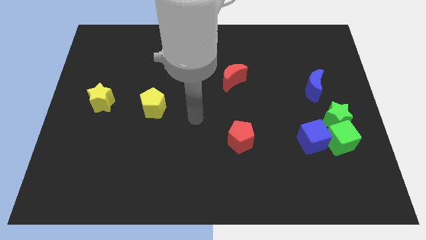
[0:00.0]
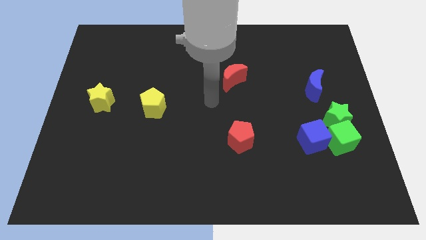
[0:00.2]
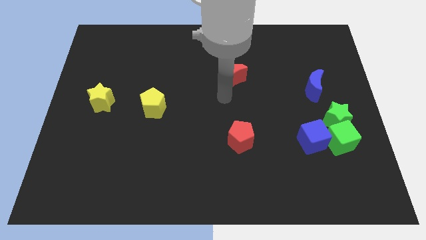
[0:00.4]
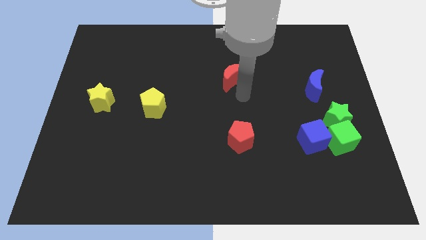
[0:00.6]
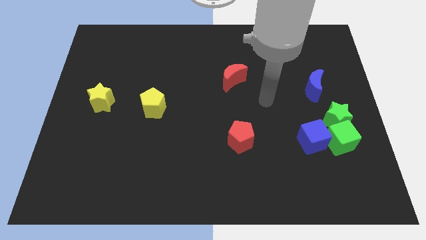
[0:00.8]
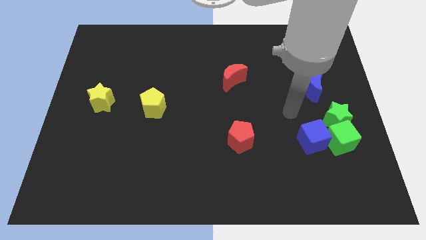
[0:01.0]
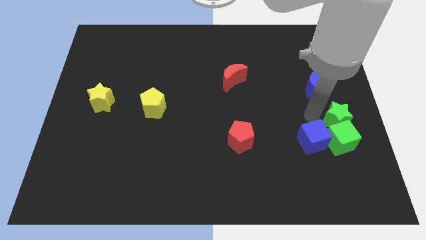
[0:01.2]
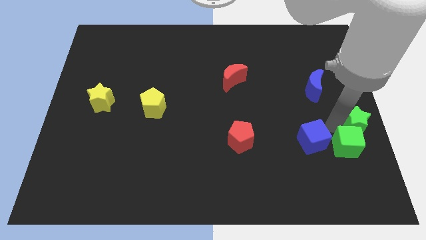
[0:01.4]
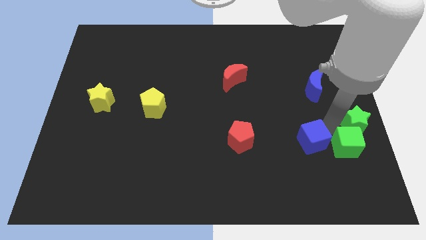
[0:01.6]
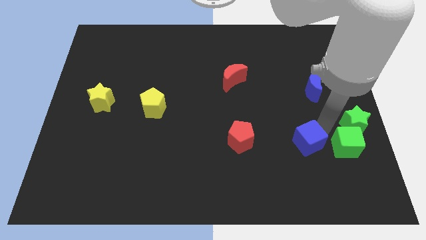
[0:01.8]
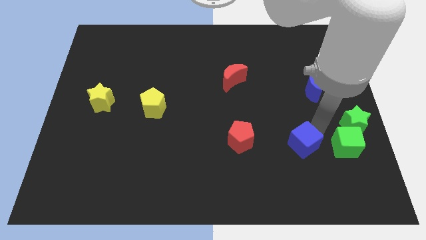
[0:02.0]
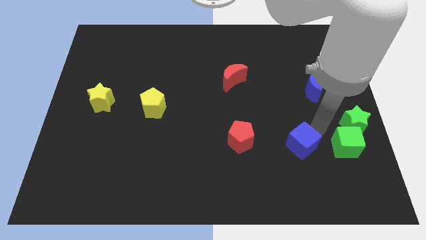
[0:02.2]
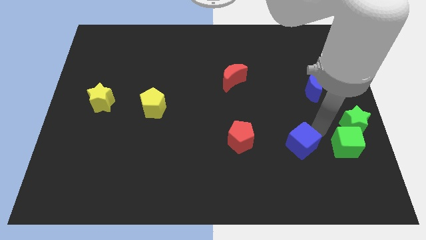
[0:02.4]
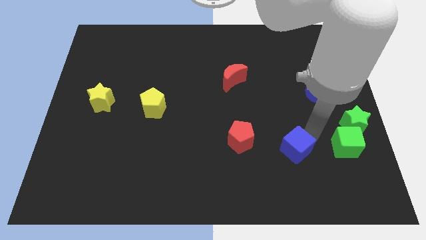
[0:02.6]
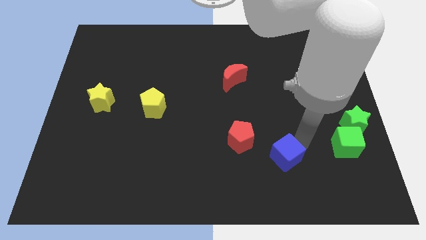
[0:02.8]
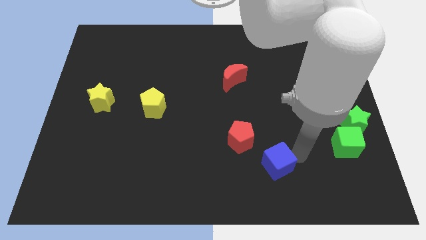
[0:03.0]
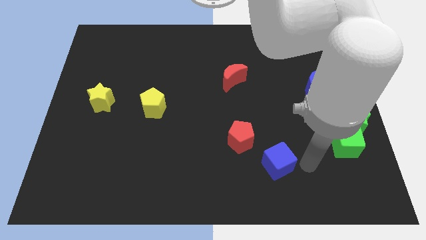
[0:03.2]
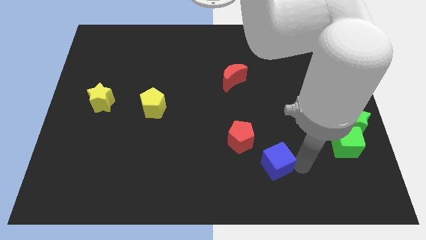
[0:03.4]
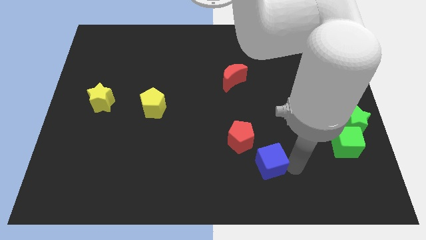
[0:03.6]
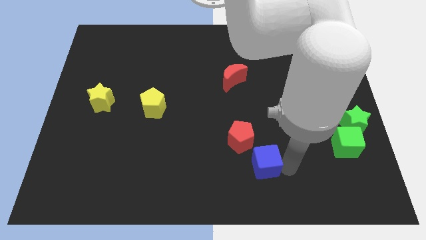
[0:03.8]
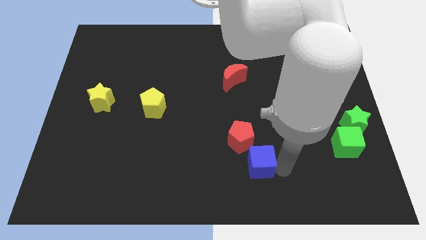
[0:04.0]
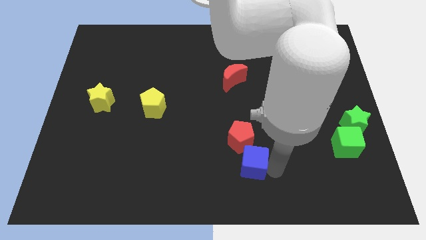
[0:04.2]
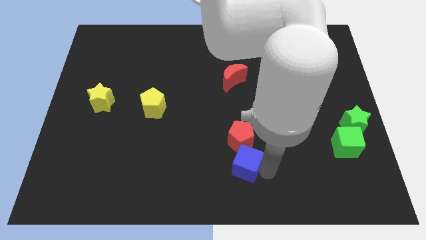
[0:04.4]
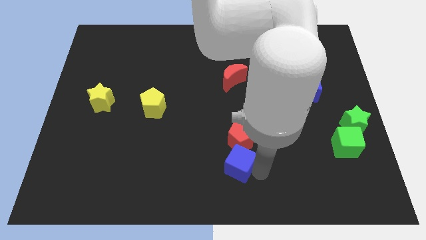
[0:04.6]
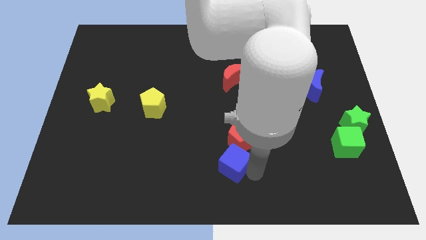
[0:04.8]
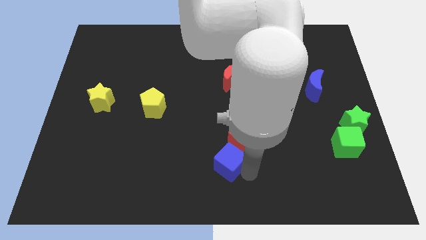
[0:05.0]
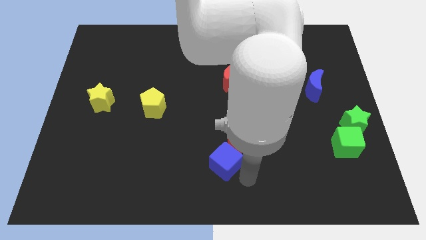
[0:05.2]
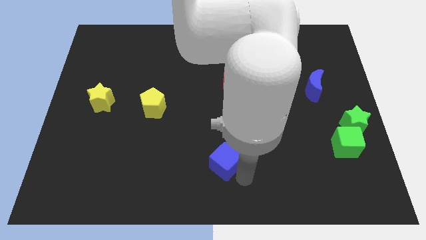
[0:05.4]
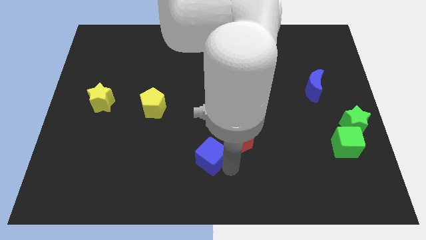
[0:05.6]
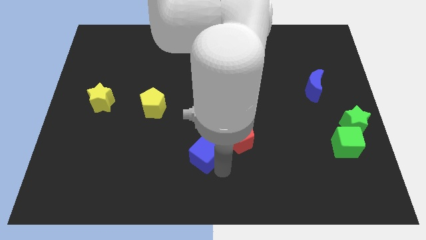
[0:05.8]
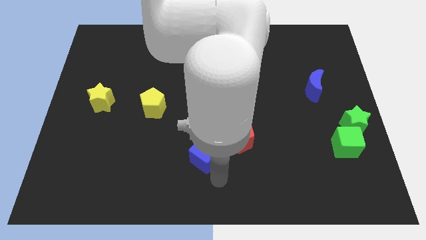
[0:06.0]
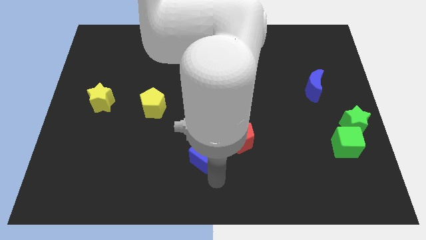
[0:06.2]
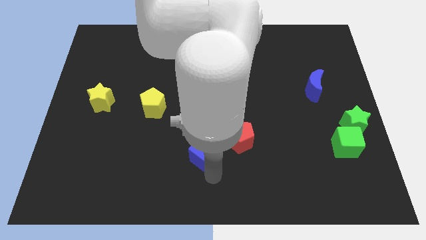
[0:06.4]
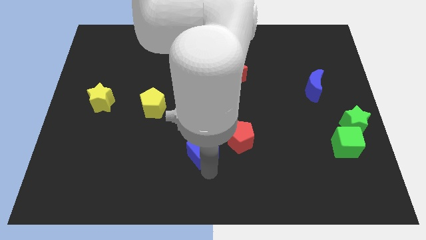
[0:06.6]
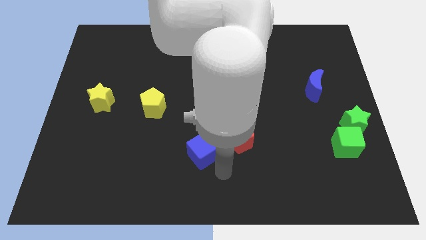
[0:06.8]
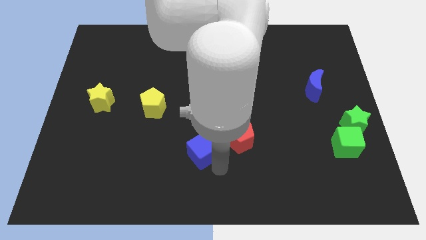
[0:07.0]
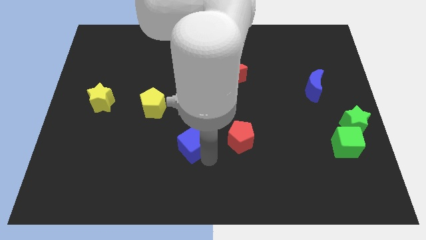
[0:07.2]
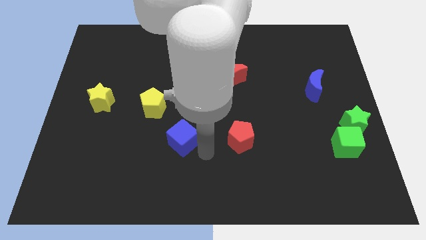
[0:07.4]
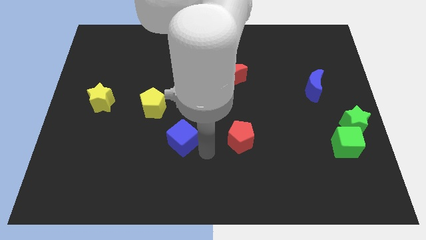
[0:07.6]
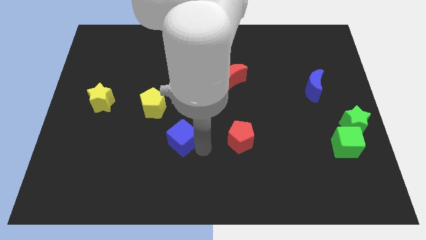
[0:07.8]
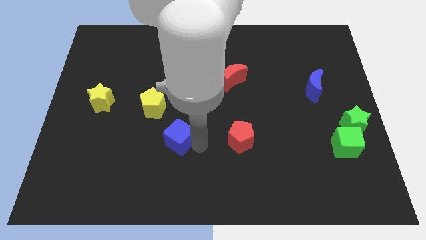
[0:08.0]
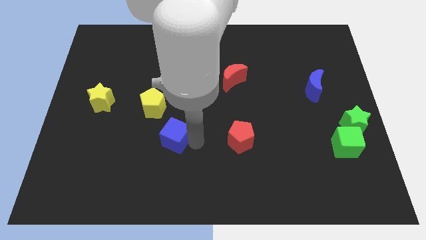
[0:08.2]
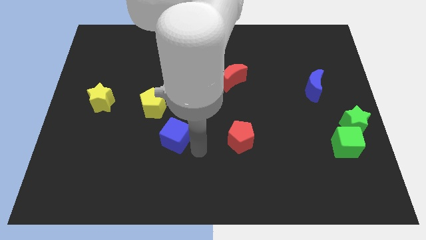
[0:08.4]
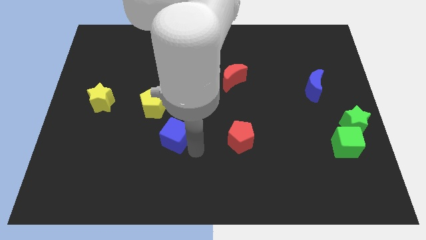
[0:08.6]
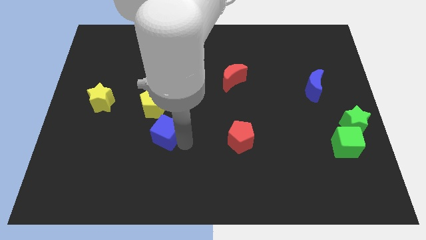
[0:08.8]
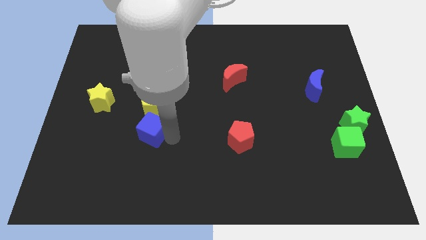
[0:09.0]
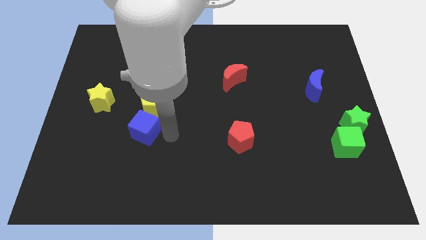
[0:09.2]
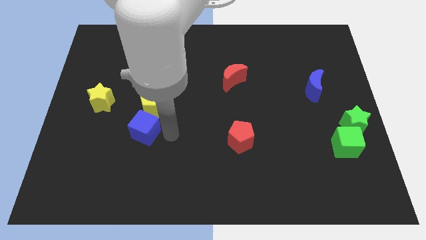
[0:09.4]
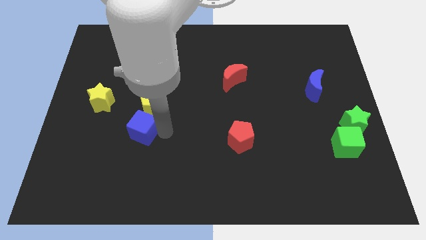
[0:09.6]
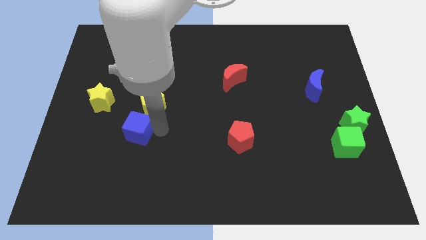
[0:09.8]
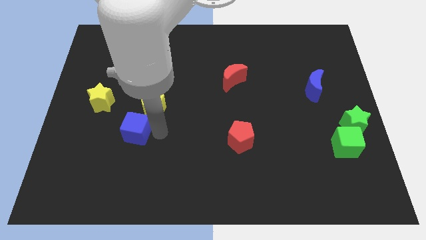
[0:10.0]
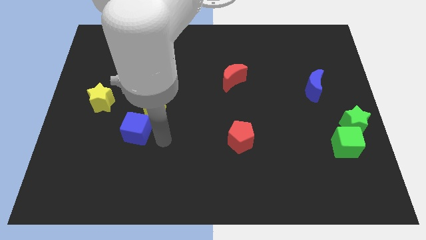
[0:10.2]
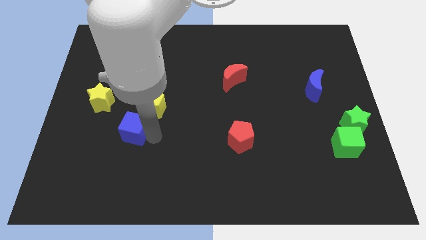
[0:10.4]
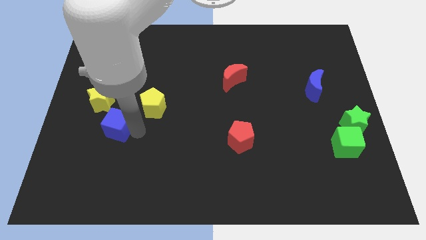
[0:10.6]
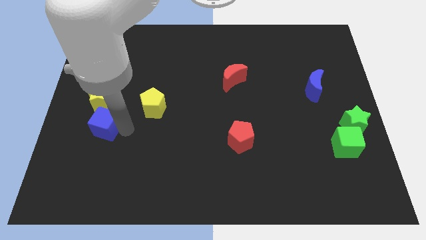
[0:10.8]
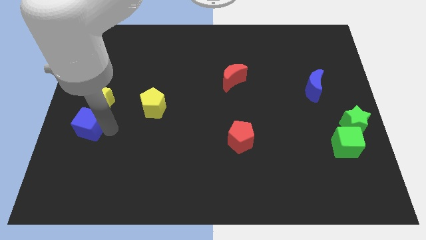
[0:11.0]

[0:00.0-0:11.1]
push the blue cube to the left side of the board

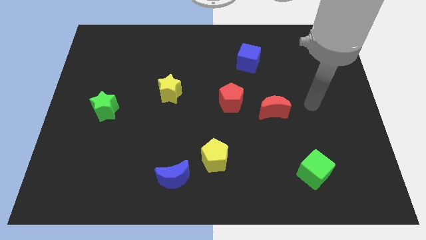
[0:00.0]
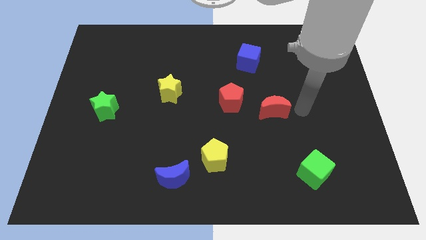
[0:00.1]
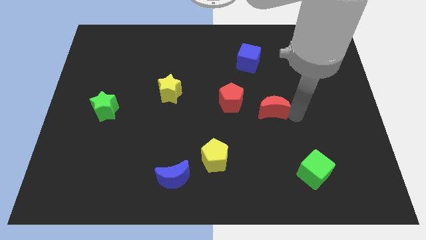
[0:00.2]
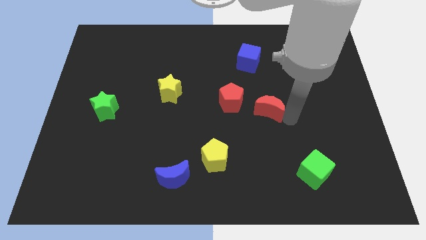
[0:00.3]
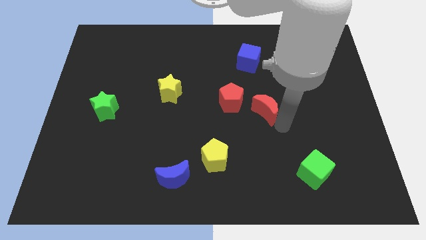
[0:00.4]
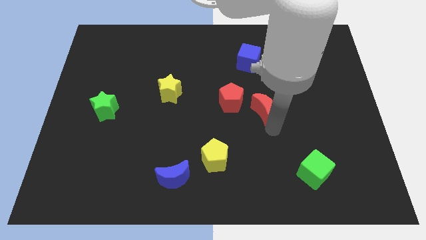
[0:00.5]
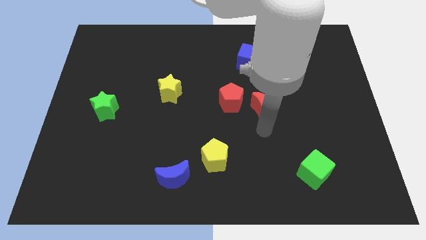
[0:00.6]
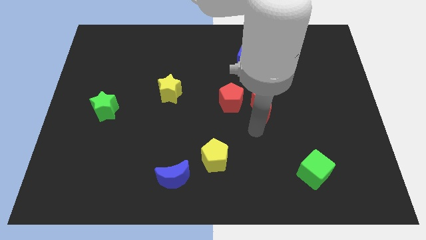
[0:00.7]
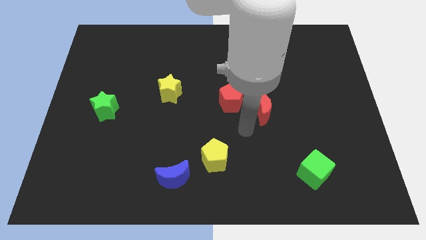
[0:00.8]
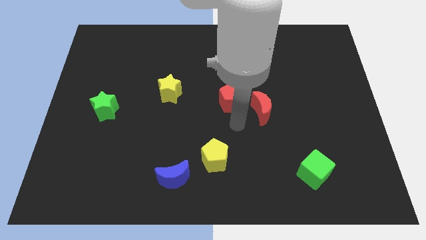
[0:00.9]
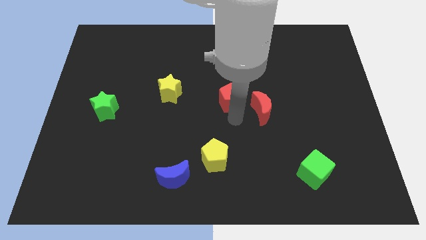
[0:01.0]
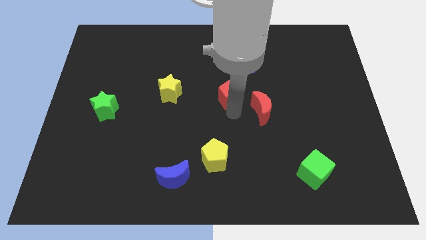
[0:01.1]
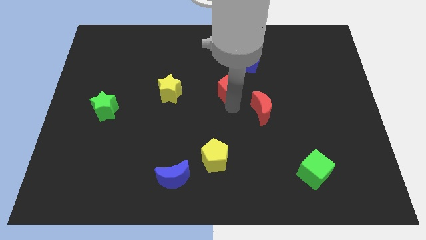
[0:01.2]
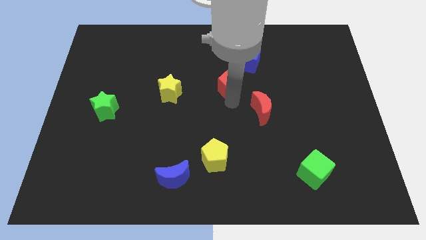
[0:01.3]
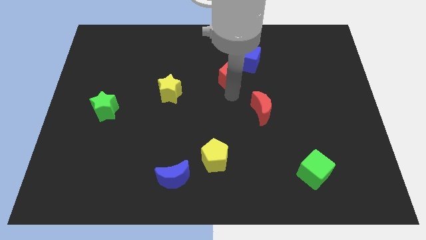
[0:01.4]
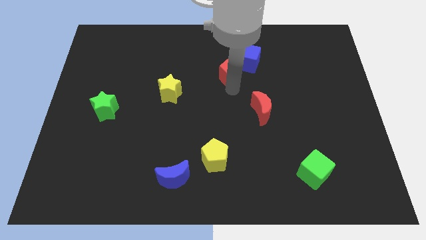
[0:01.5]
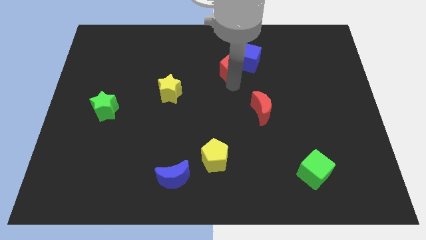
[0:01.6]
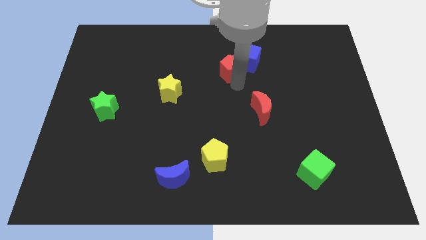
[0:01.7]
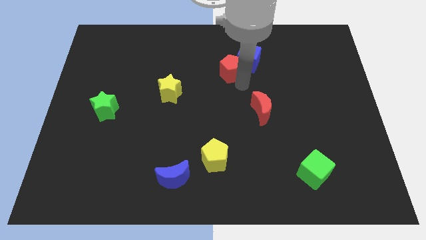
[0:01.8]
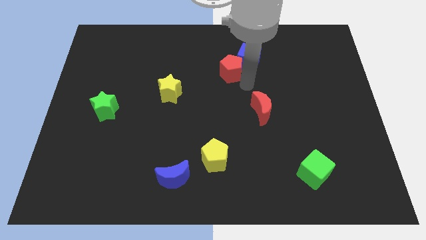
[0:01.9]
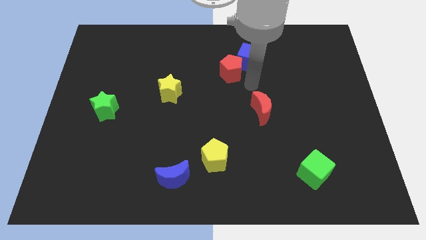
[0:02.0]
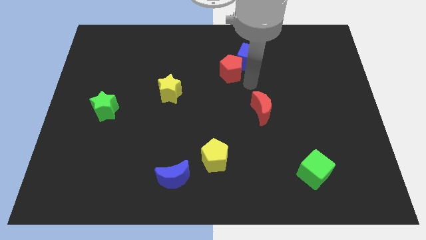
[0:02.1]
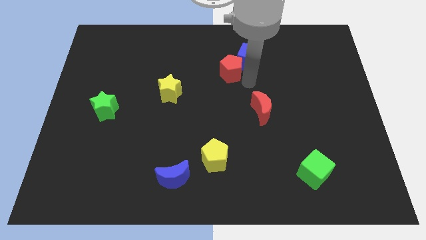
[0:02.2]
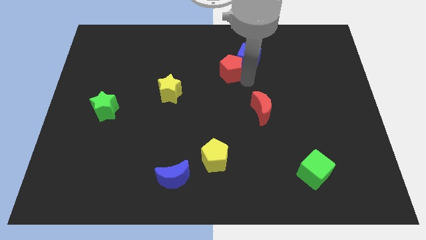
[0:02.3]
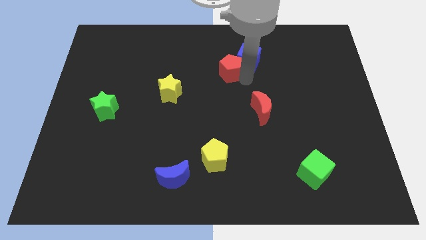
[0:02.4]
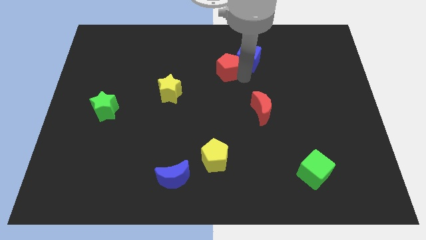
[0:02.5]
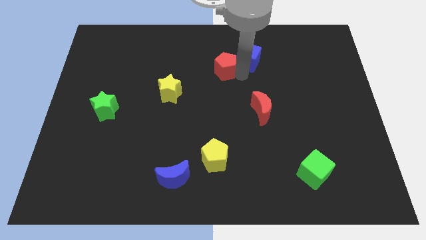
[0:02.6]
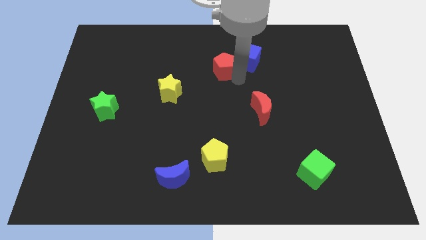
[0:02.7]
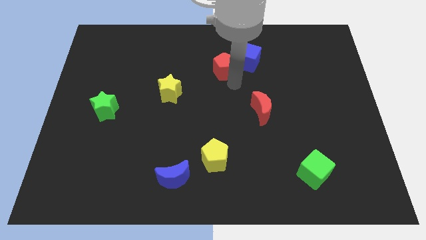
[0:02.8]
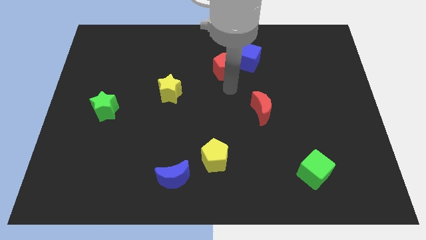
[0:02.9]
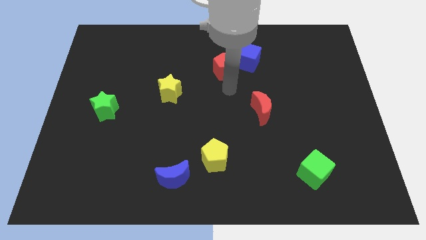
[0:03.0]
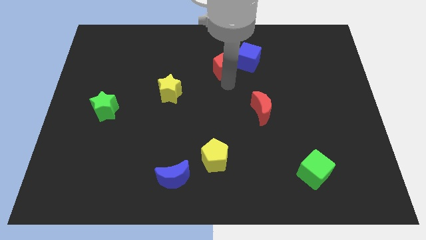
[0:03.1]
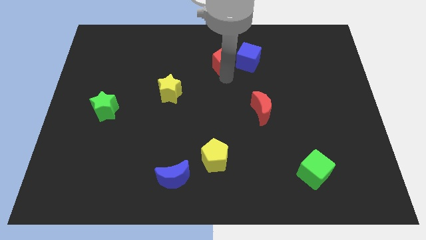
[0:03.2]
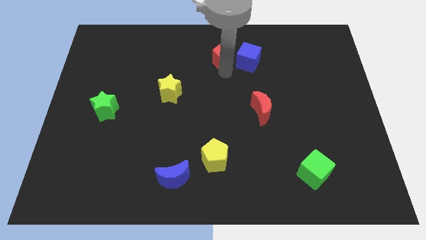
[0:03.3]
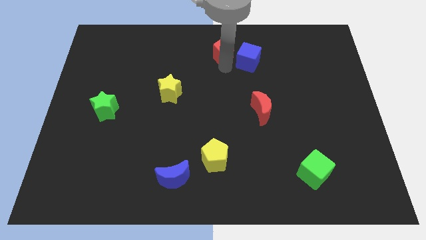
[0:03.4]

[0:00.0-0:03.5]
push the red pentagon to the towards your base
